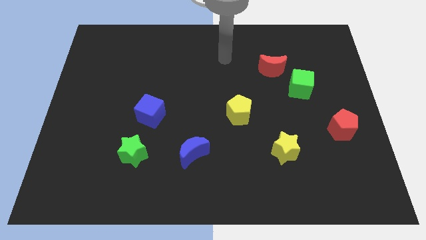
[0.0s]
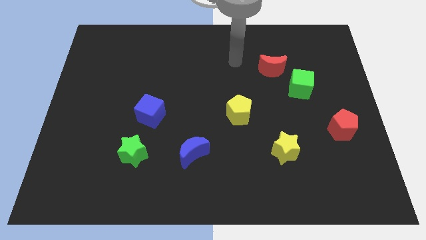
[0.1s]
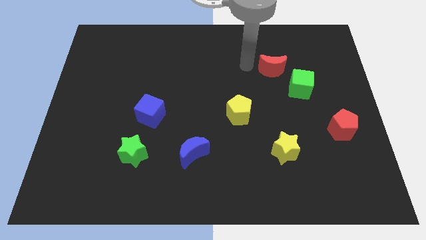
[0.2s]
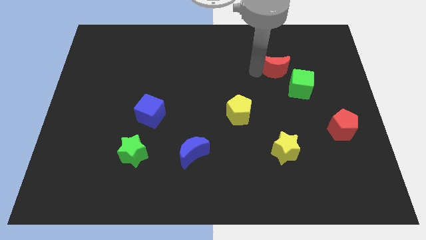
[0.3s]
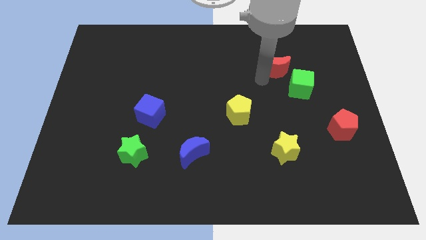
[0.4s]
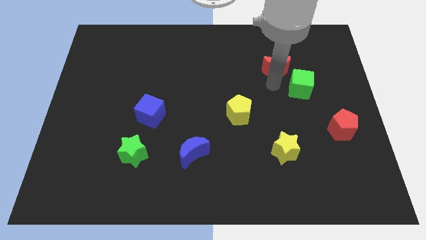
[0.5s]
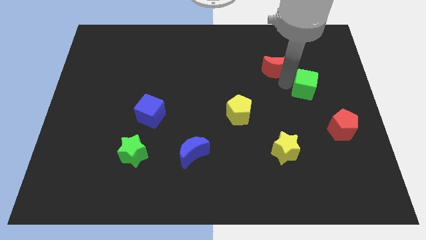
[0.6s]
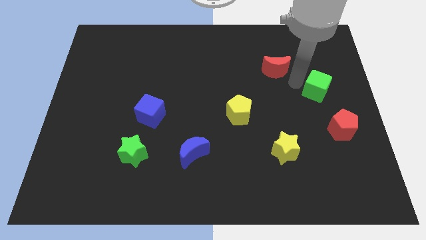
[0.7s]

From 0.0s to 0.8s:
pull the red moon apart from the green cube

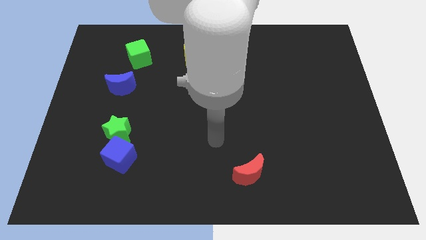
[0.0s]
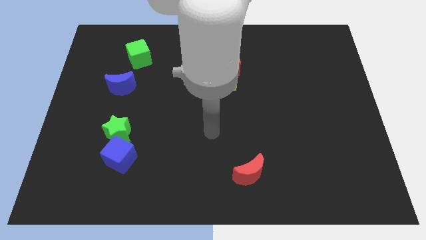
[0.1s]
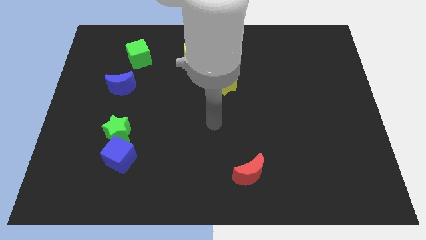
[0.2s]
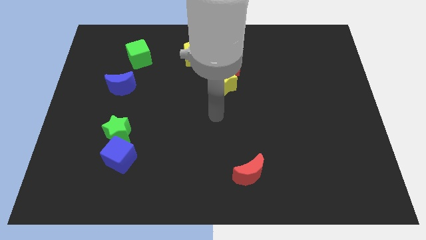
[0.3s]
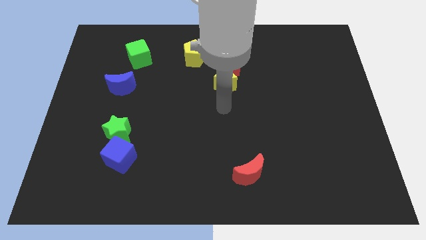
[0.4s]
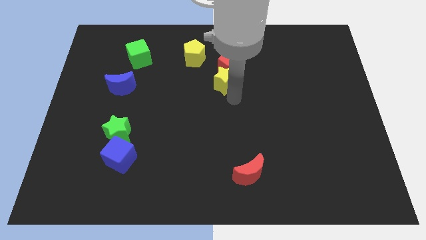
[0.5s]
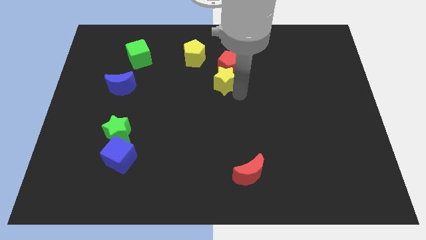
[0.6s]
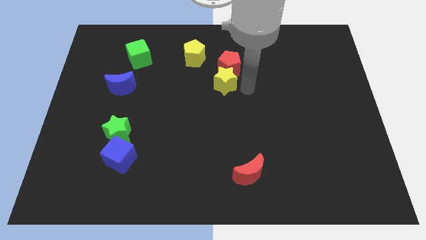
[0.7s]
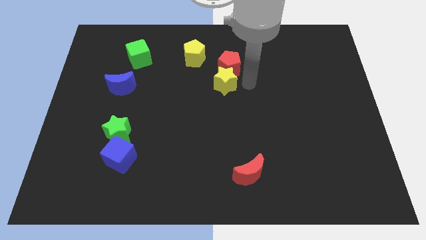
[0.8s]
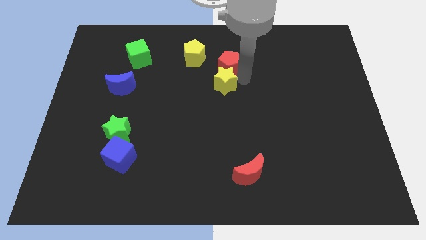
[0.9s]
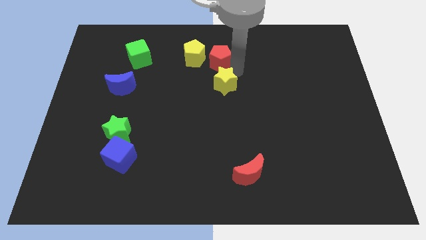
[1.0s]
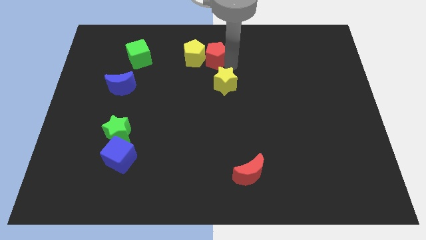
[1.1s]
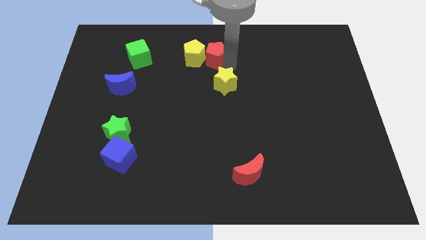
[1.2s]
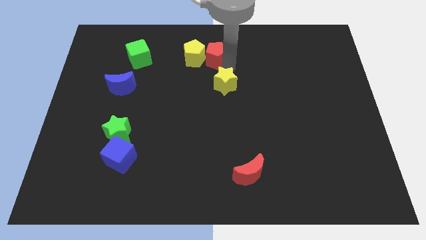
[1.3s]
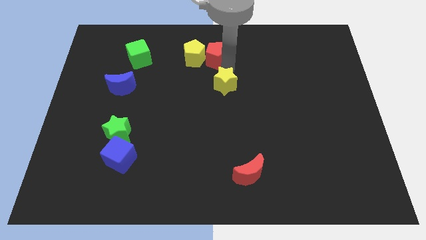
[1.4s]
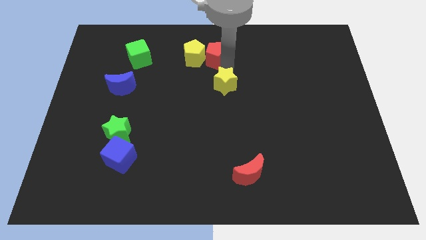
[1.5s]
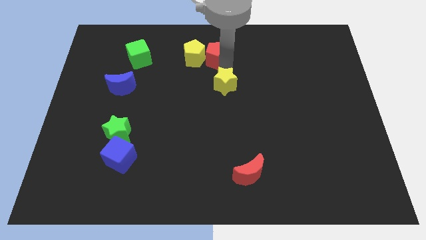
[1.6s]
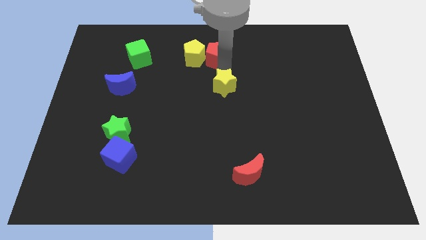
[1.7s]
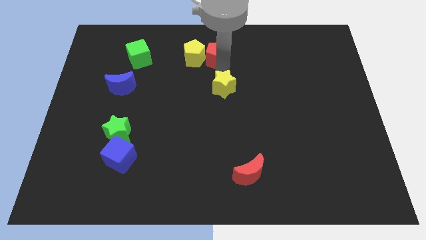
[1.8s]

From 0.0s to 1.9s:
move the yellow star away from the red pentagon

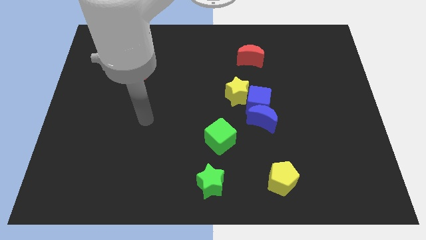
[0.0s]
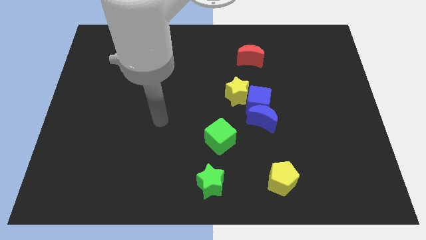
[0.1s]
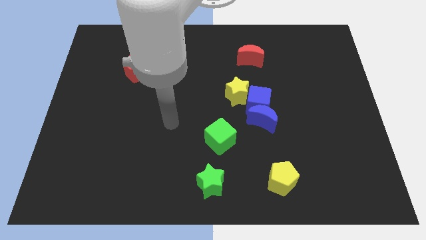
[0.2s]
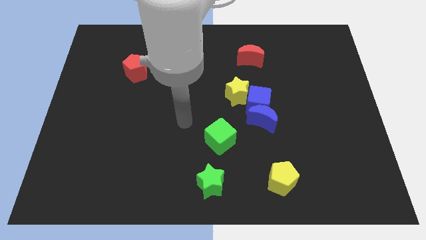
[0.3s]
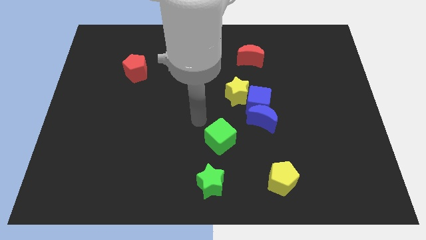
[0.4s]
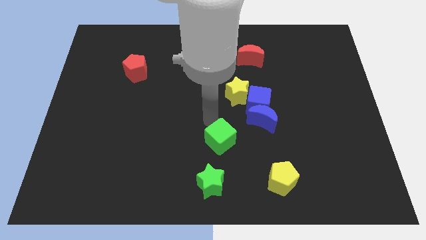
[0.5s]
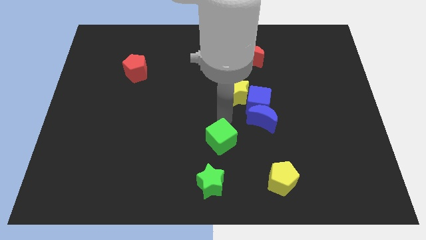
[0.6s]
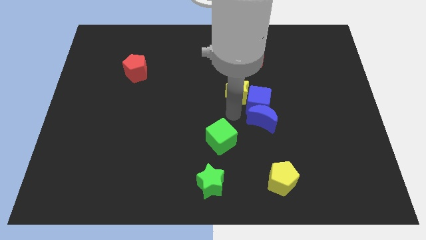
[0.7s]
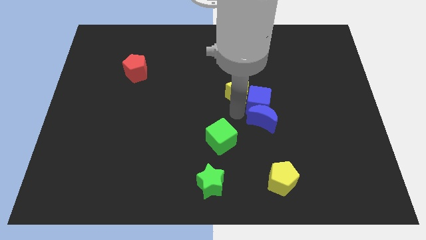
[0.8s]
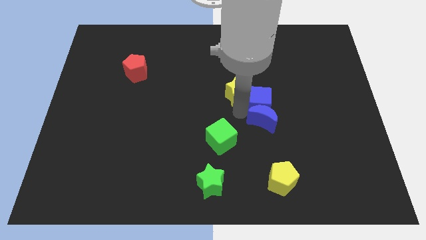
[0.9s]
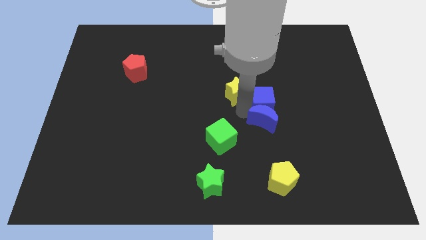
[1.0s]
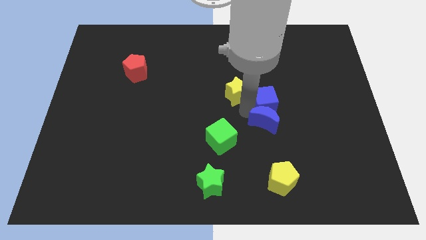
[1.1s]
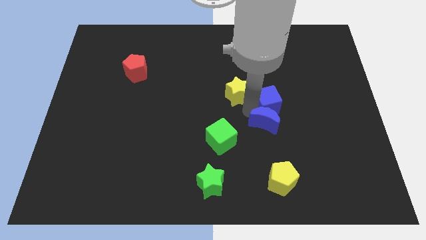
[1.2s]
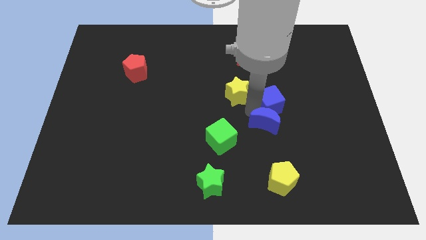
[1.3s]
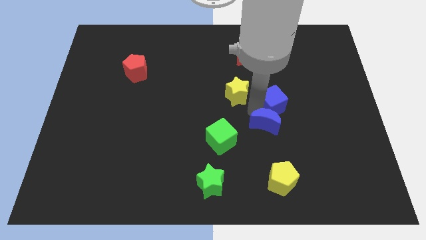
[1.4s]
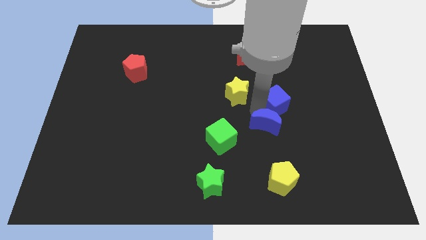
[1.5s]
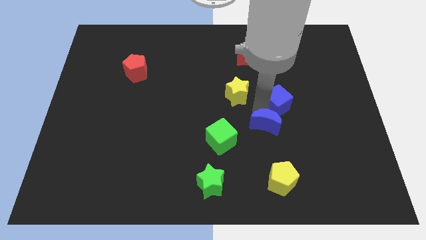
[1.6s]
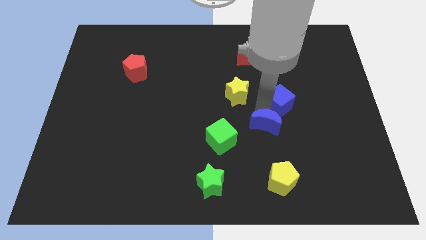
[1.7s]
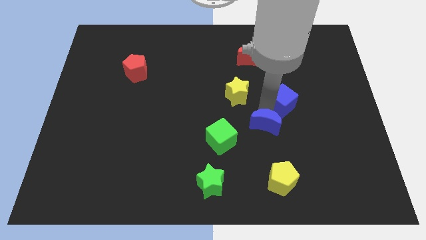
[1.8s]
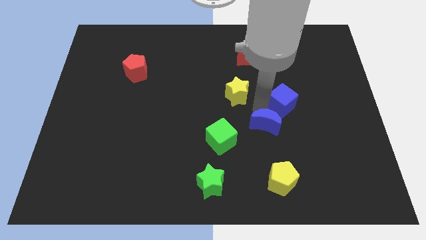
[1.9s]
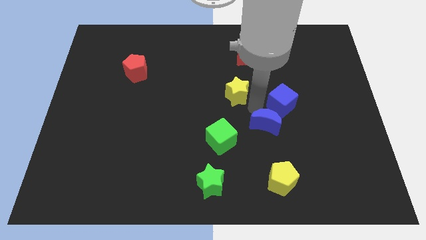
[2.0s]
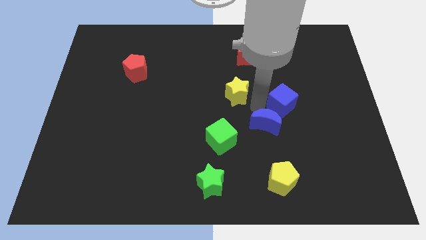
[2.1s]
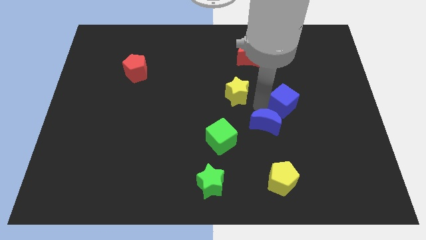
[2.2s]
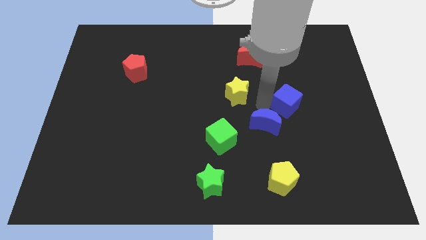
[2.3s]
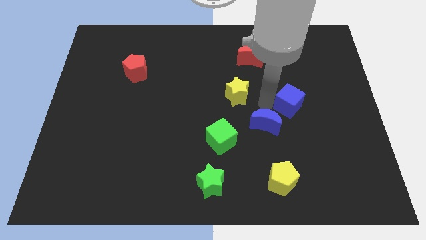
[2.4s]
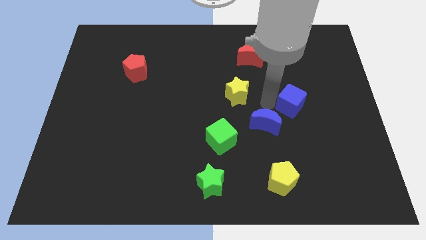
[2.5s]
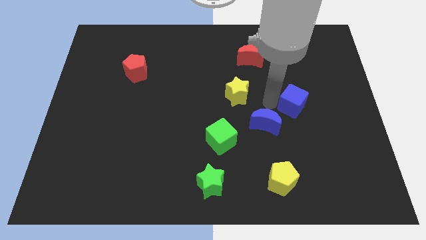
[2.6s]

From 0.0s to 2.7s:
pull the blue cube apart from the blue moon and yellow star

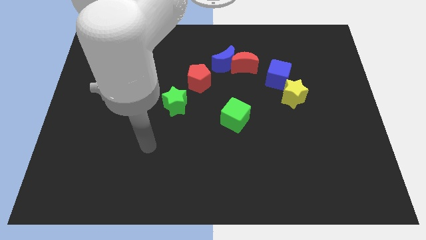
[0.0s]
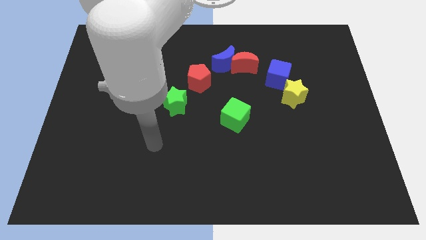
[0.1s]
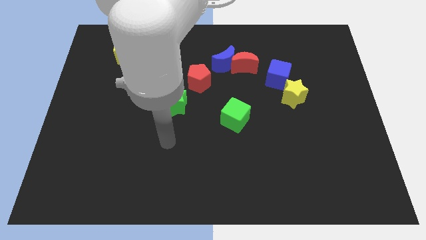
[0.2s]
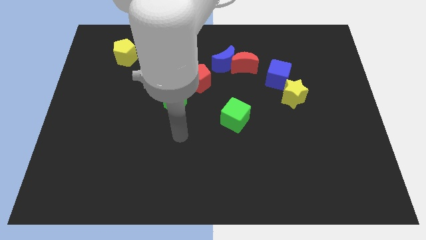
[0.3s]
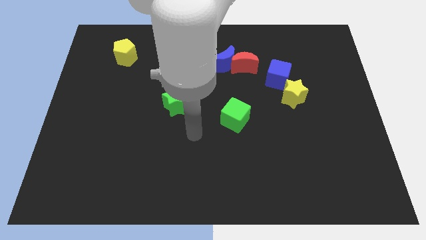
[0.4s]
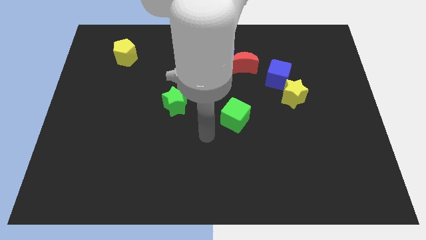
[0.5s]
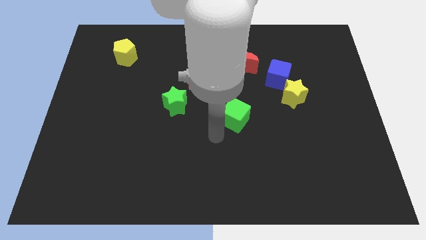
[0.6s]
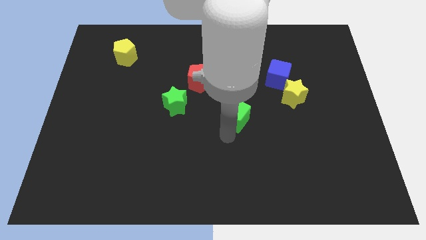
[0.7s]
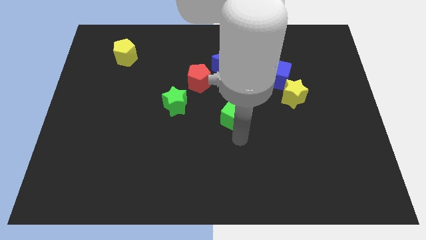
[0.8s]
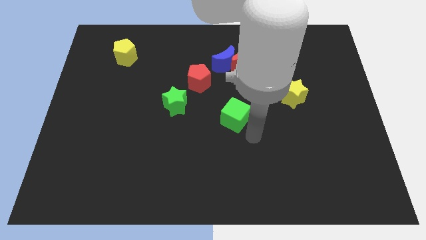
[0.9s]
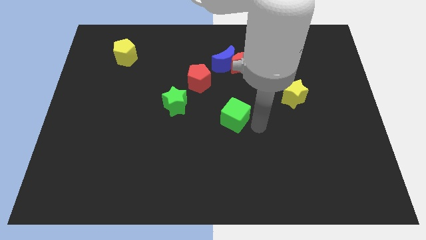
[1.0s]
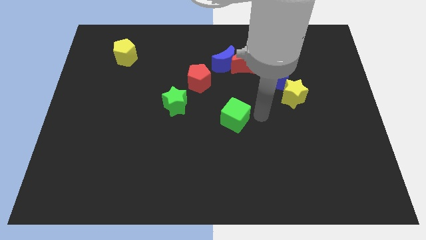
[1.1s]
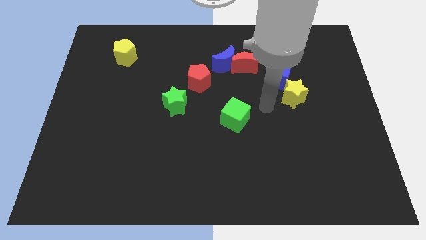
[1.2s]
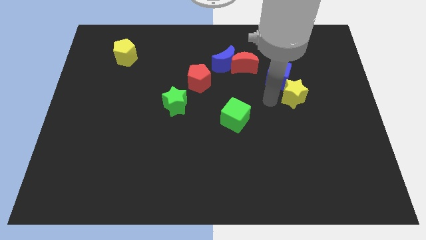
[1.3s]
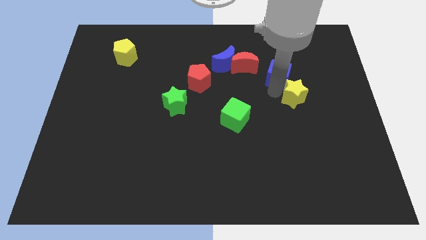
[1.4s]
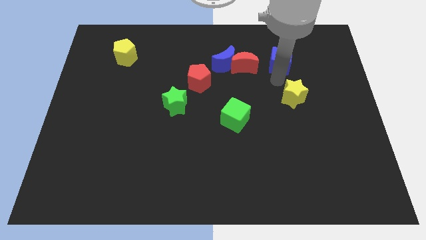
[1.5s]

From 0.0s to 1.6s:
separate the yellow star from the blue cube

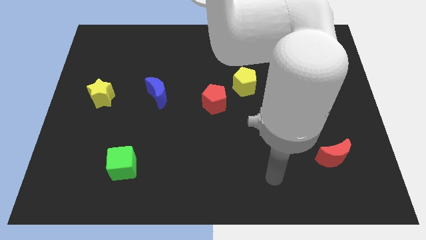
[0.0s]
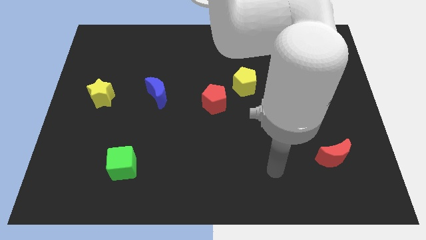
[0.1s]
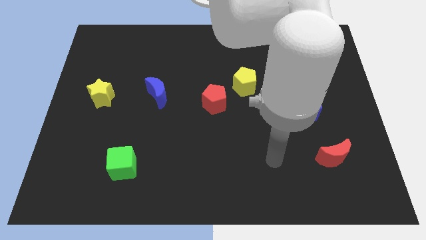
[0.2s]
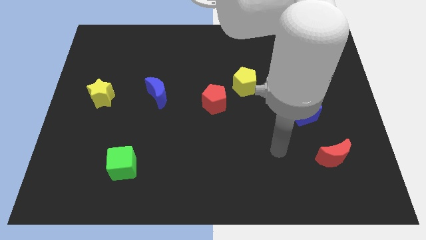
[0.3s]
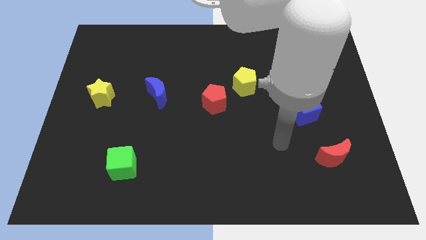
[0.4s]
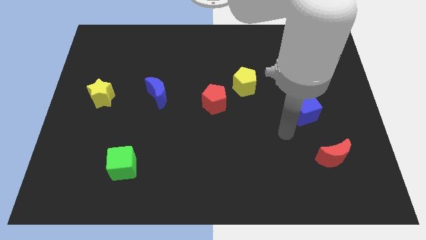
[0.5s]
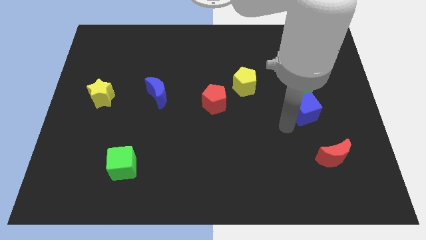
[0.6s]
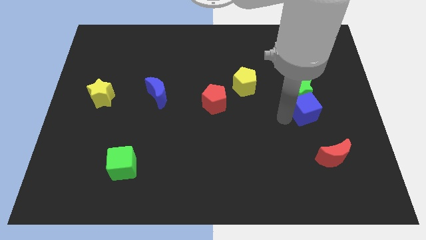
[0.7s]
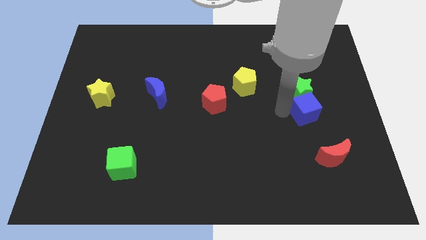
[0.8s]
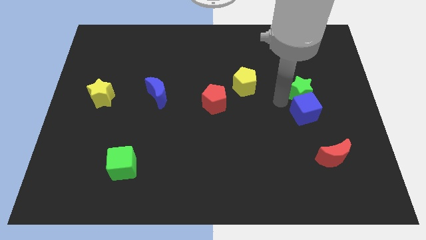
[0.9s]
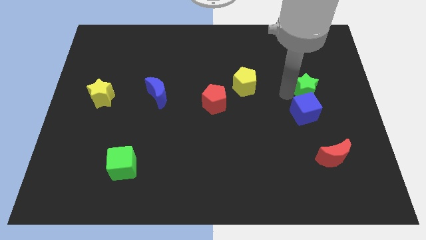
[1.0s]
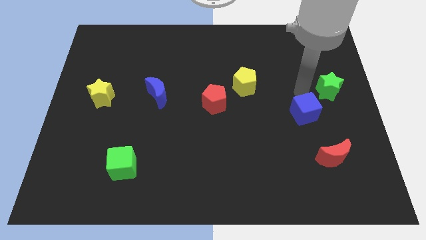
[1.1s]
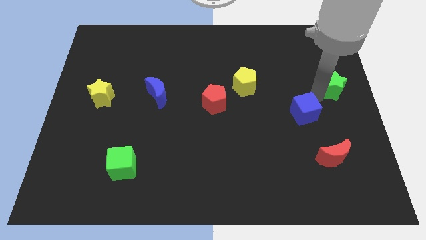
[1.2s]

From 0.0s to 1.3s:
move the blue cube away from the green star

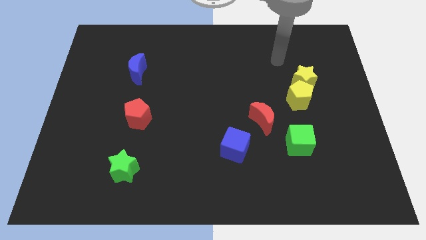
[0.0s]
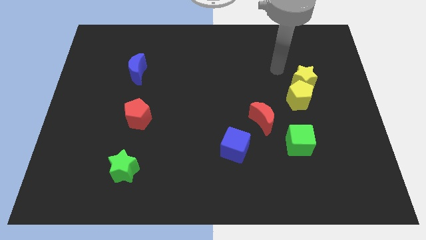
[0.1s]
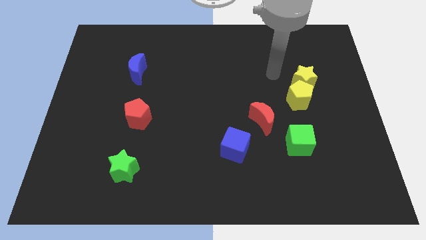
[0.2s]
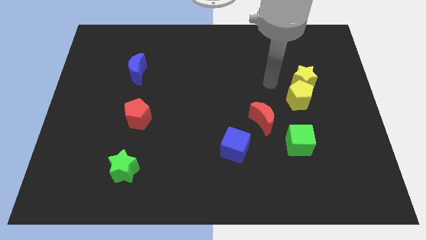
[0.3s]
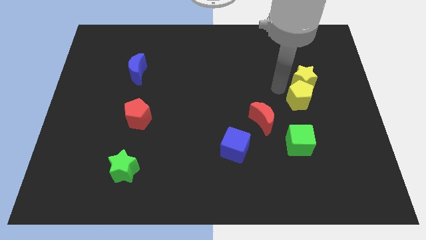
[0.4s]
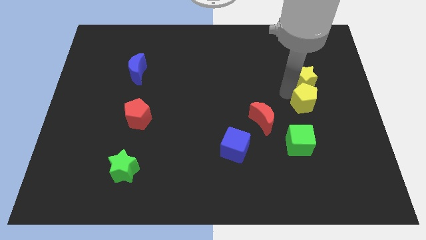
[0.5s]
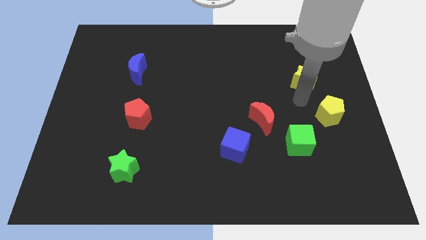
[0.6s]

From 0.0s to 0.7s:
separate the yellow star from the yellow pentagon

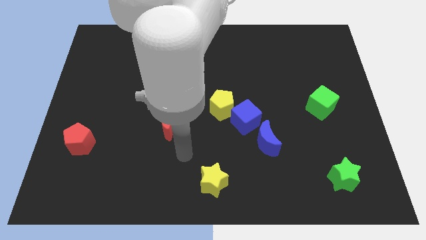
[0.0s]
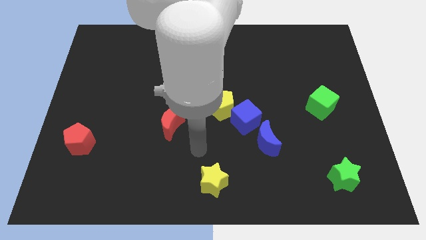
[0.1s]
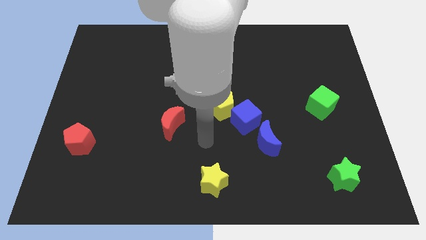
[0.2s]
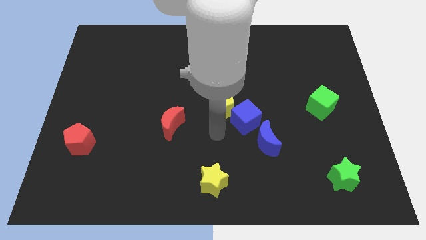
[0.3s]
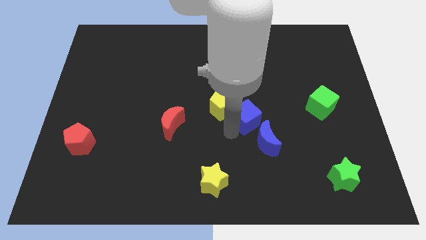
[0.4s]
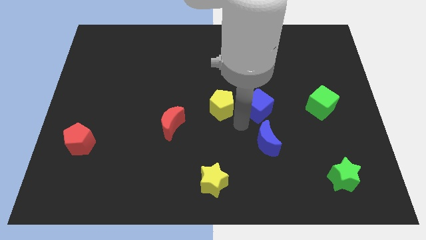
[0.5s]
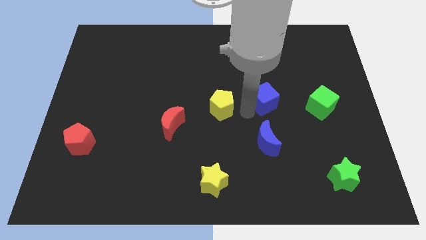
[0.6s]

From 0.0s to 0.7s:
separate the yellow pentagon from the blue cube
